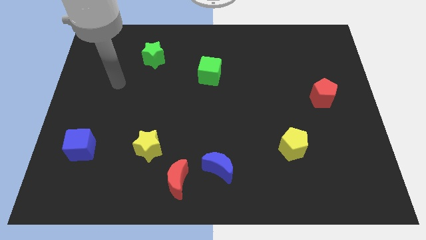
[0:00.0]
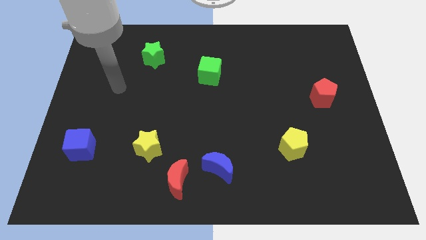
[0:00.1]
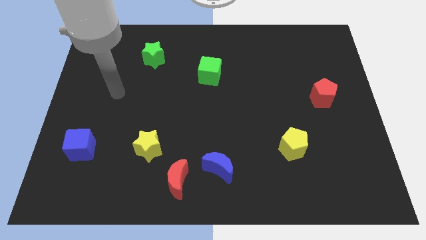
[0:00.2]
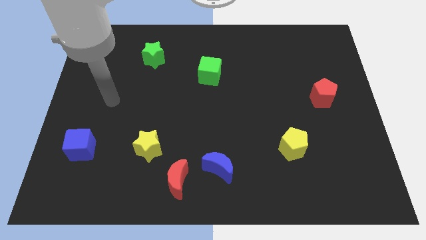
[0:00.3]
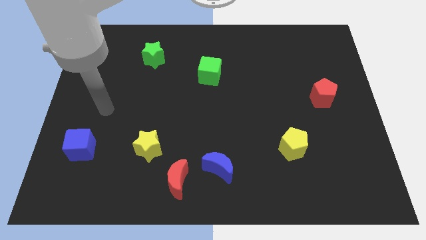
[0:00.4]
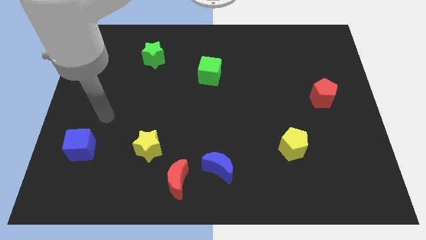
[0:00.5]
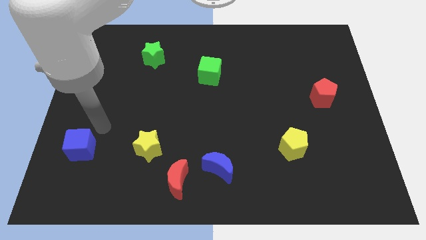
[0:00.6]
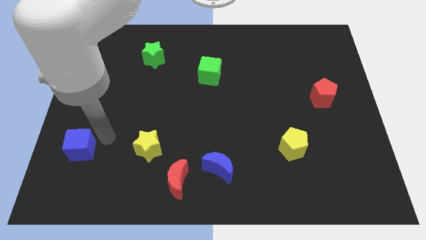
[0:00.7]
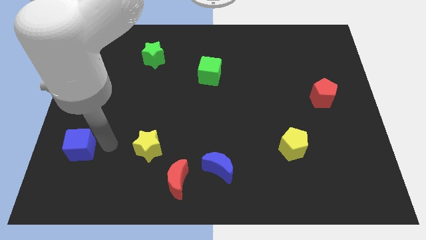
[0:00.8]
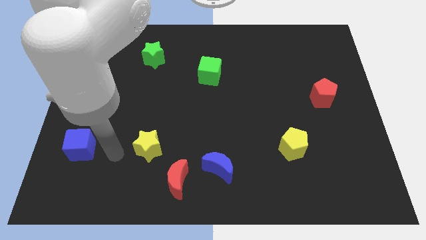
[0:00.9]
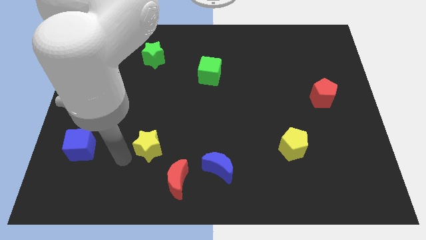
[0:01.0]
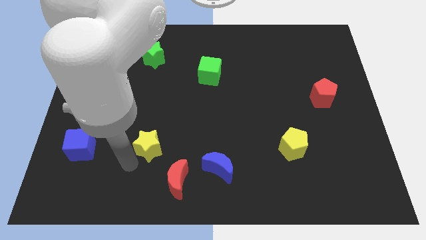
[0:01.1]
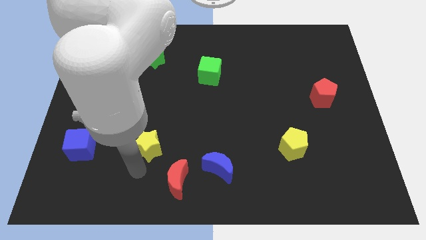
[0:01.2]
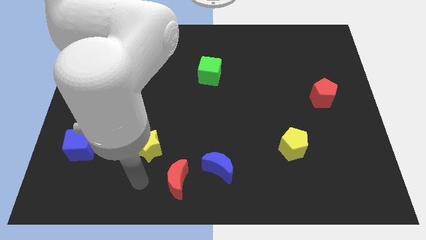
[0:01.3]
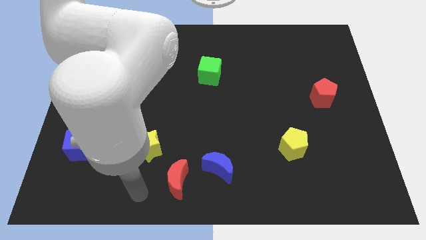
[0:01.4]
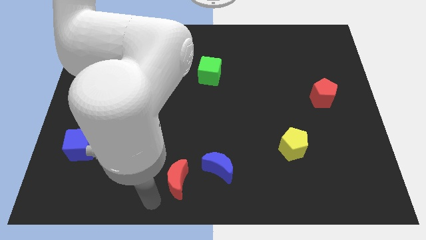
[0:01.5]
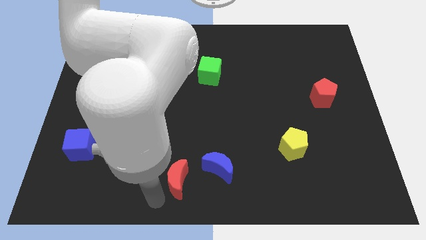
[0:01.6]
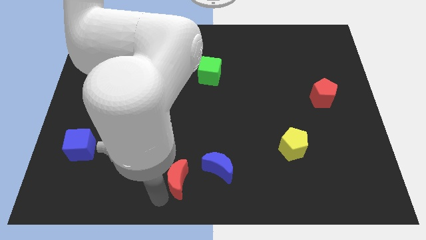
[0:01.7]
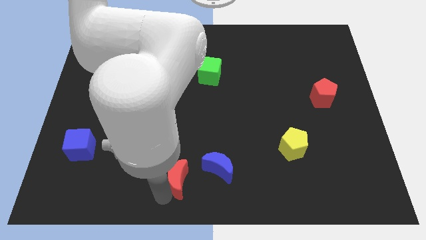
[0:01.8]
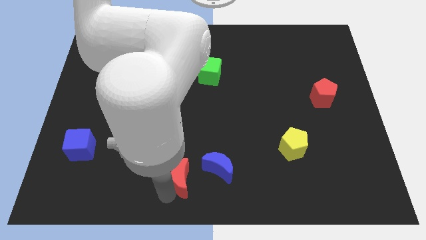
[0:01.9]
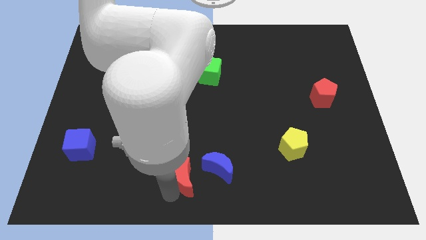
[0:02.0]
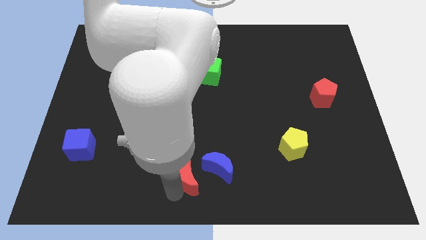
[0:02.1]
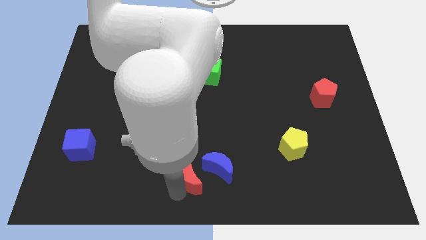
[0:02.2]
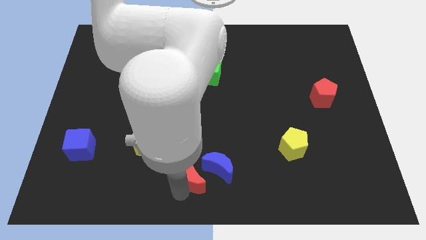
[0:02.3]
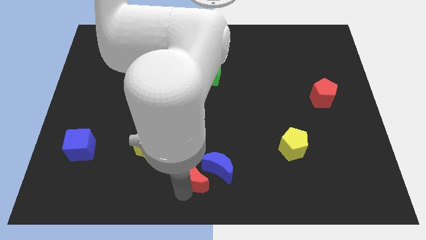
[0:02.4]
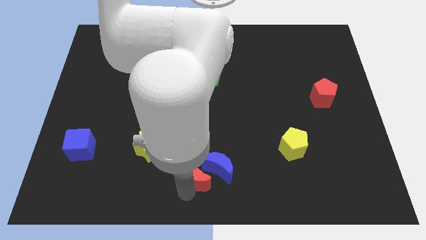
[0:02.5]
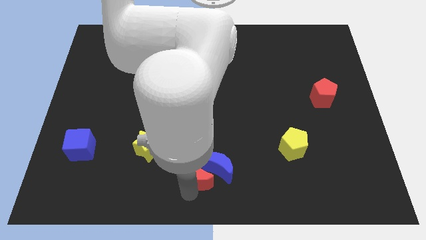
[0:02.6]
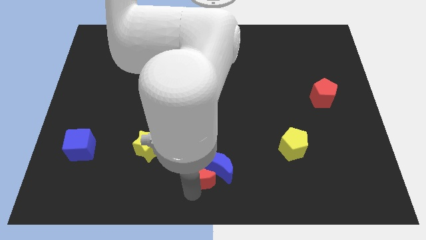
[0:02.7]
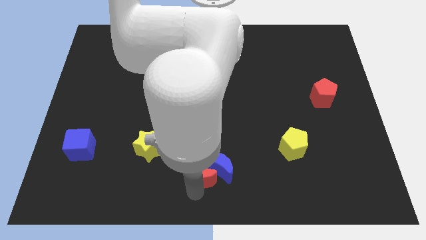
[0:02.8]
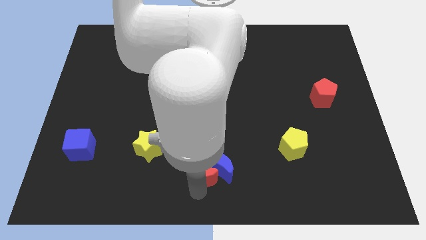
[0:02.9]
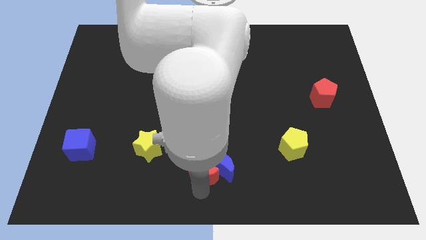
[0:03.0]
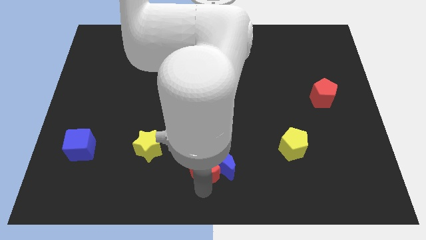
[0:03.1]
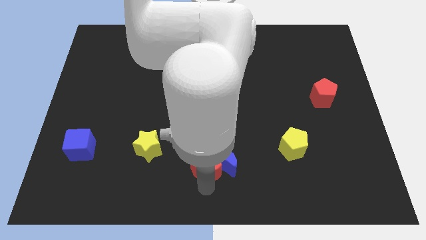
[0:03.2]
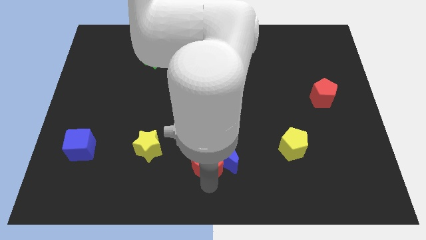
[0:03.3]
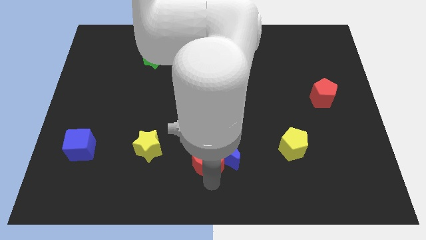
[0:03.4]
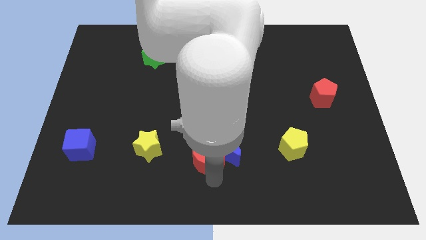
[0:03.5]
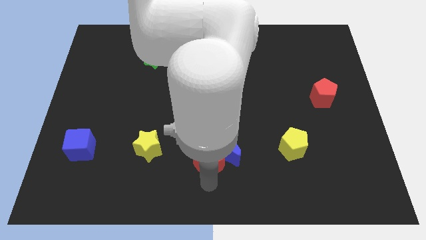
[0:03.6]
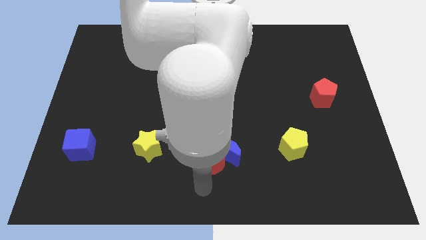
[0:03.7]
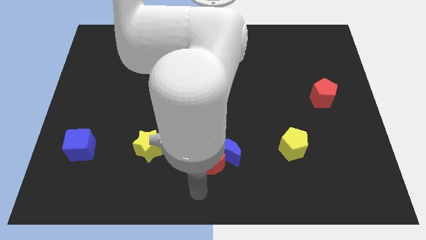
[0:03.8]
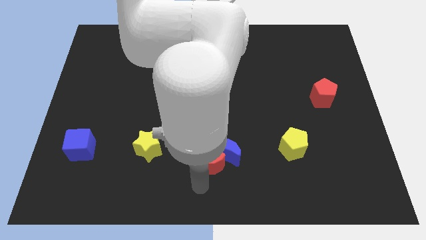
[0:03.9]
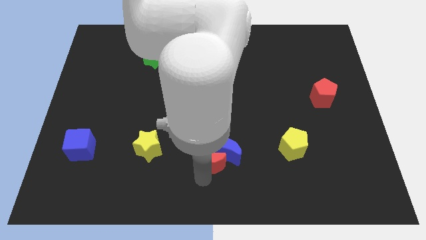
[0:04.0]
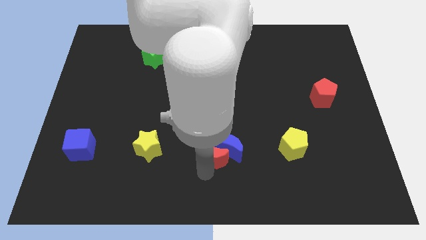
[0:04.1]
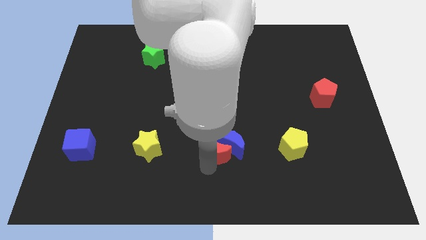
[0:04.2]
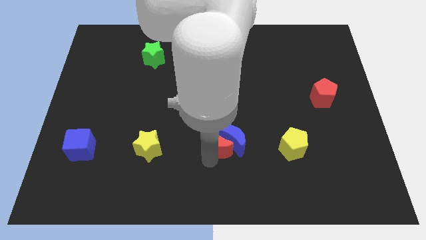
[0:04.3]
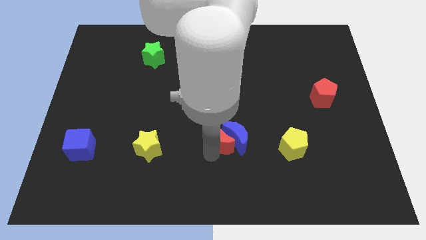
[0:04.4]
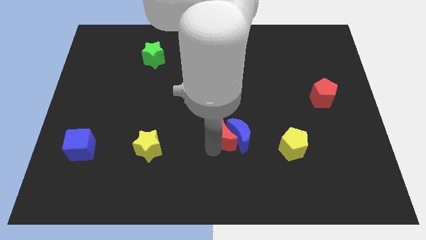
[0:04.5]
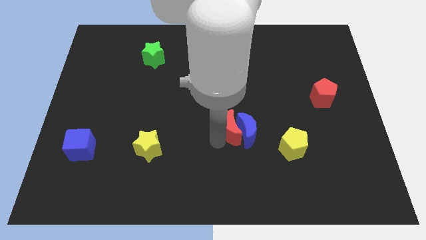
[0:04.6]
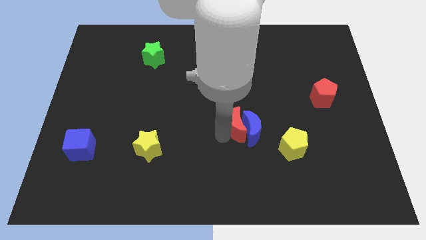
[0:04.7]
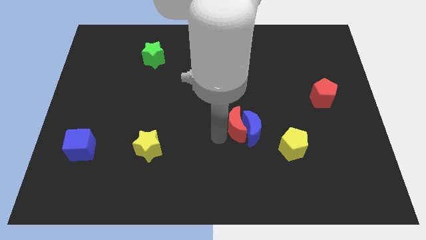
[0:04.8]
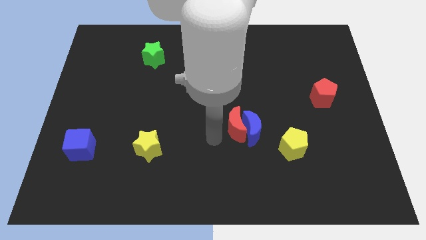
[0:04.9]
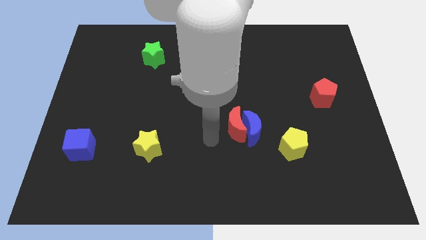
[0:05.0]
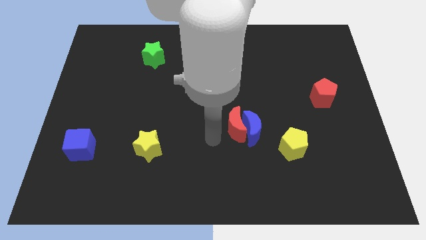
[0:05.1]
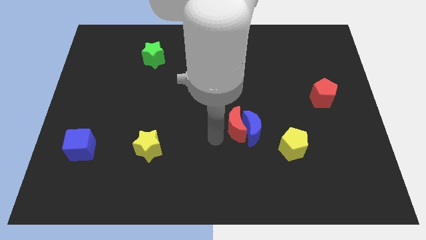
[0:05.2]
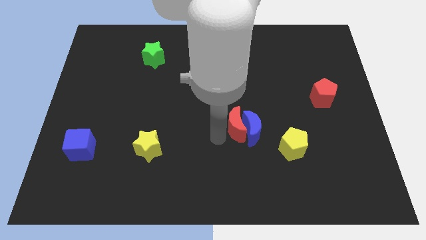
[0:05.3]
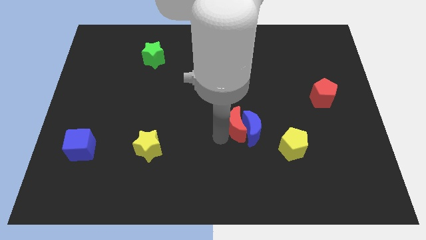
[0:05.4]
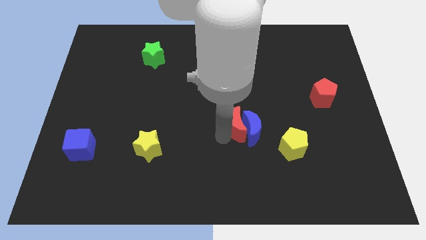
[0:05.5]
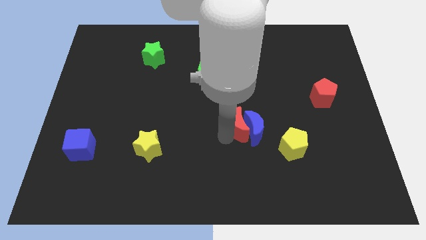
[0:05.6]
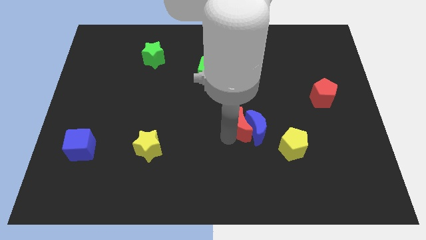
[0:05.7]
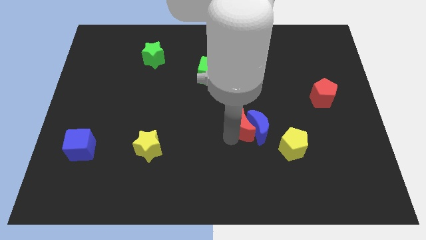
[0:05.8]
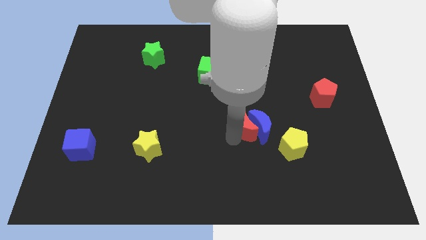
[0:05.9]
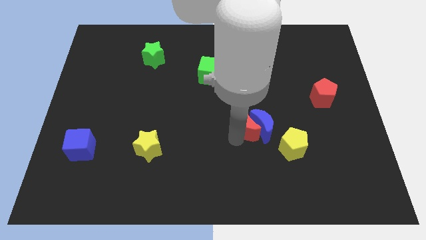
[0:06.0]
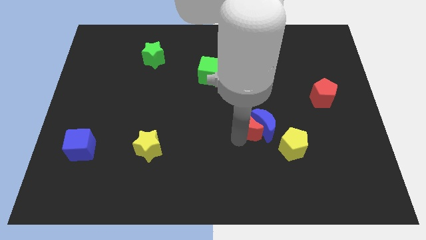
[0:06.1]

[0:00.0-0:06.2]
slide the red moon up and then right

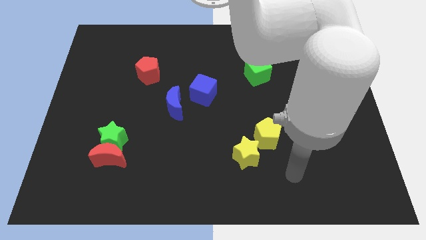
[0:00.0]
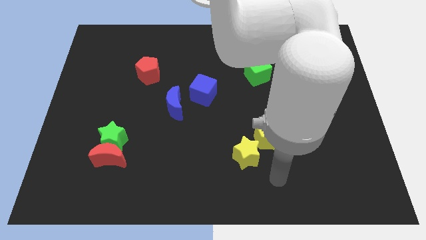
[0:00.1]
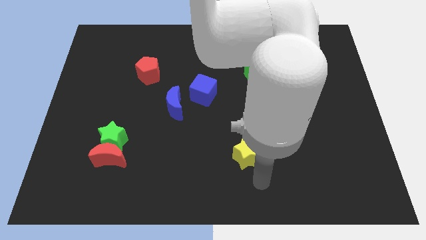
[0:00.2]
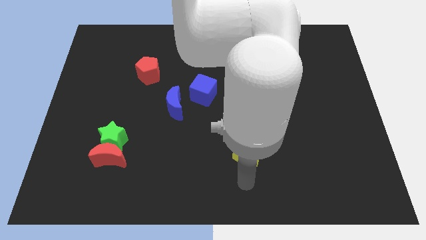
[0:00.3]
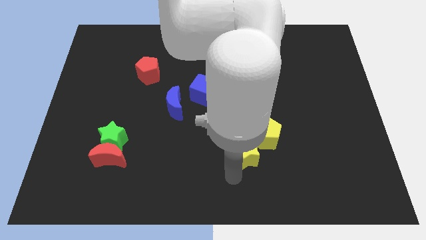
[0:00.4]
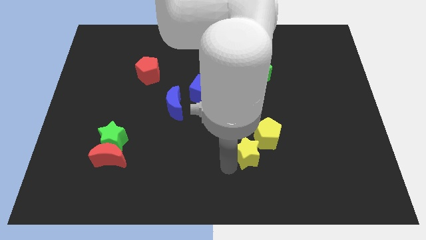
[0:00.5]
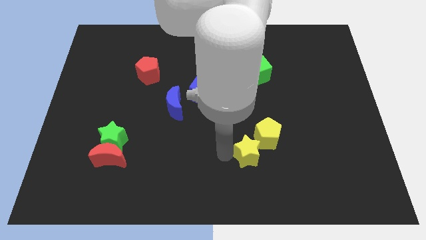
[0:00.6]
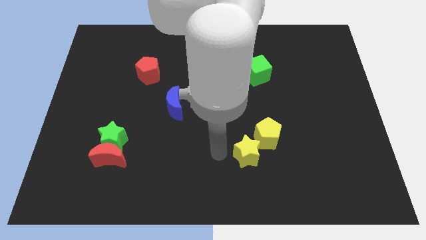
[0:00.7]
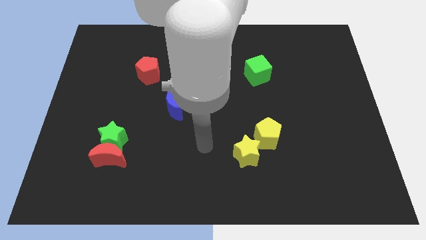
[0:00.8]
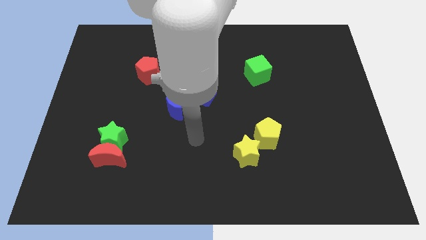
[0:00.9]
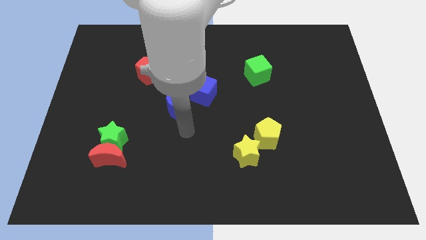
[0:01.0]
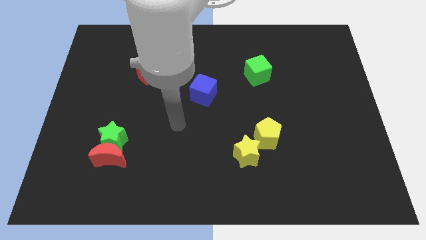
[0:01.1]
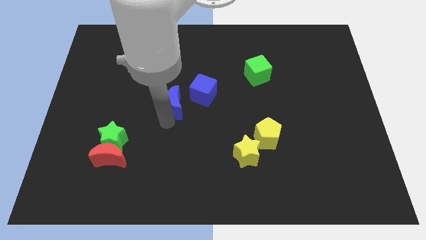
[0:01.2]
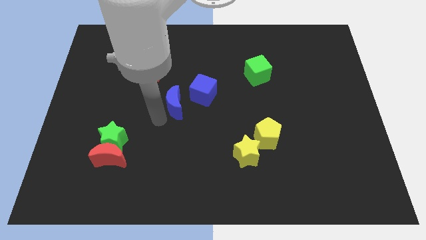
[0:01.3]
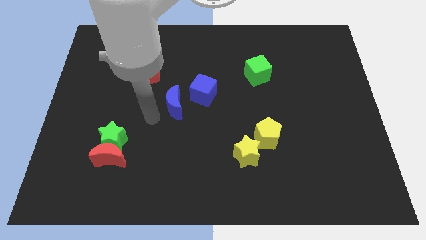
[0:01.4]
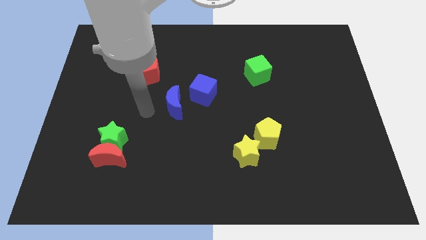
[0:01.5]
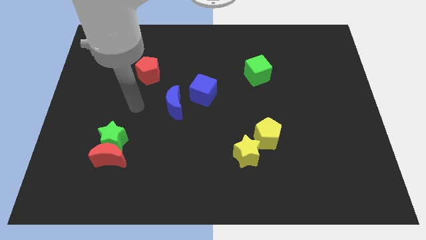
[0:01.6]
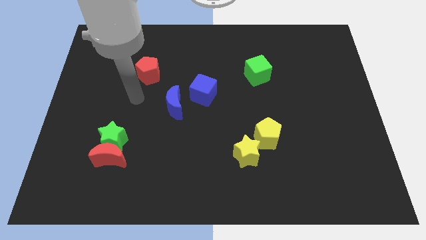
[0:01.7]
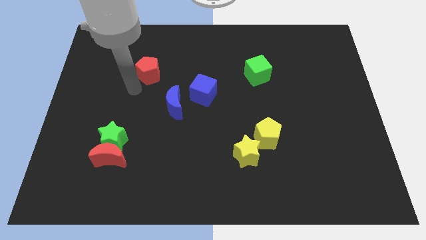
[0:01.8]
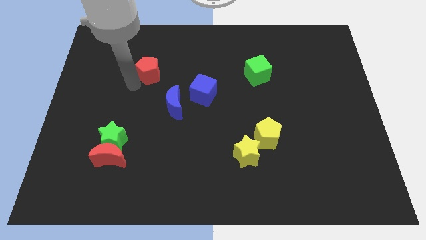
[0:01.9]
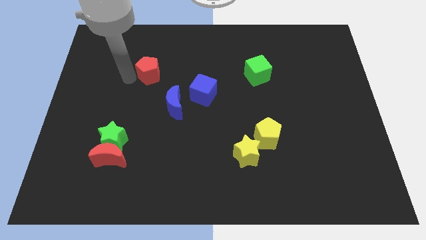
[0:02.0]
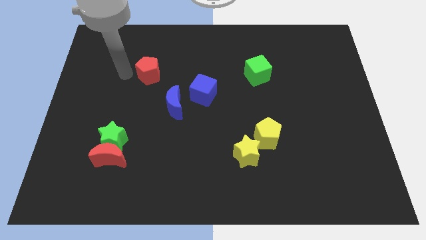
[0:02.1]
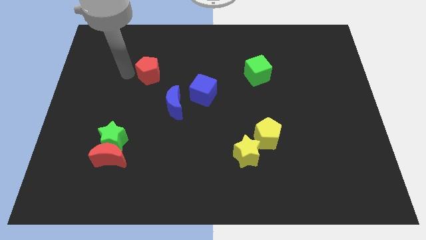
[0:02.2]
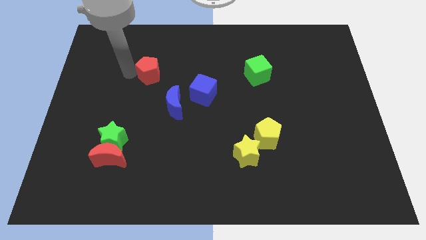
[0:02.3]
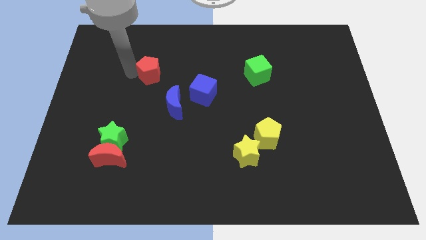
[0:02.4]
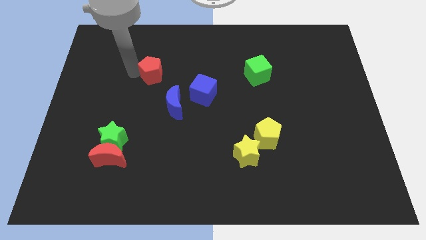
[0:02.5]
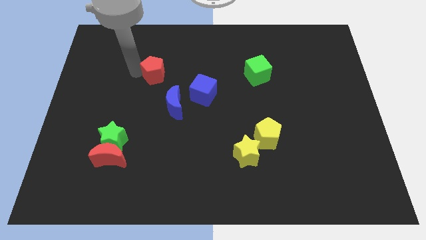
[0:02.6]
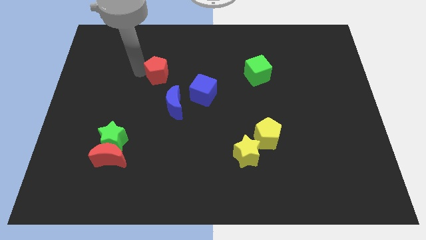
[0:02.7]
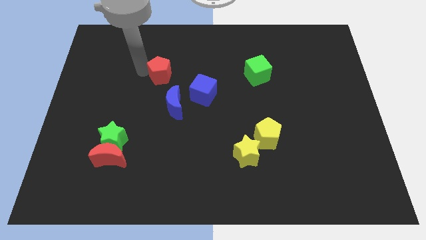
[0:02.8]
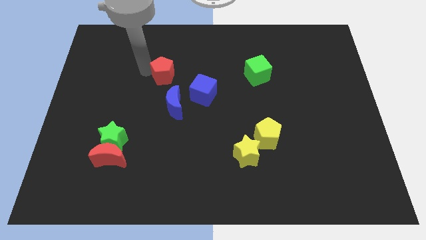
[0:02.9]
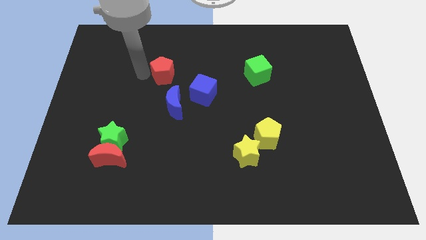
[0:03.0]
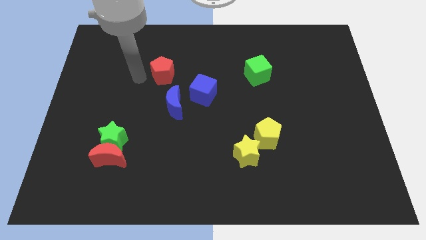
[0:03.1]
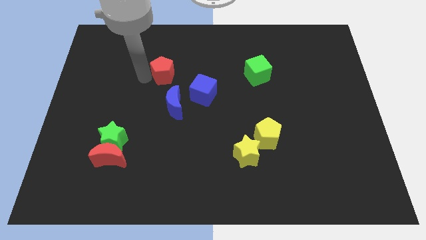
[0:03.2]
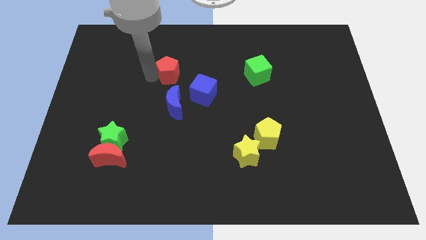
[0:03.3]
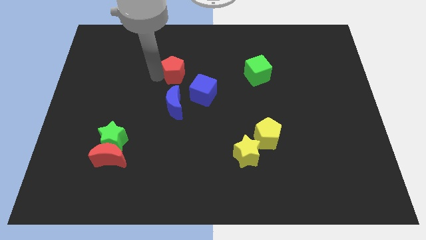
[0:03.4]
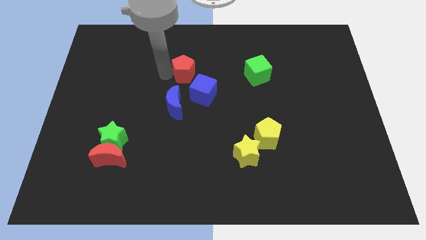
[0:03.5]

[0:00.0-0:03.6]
move the red pentagon right a little bit
